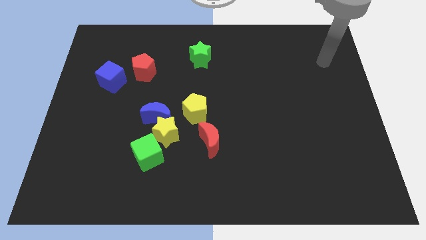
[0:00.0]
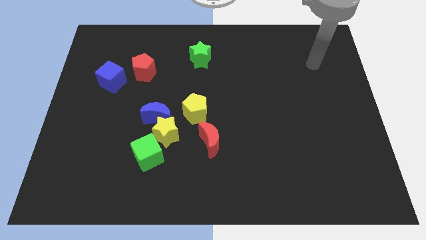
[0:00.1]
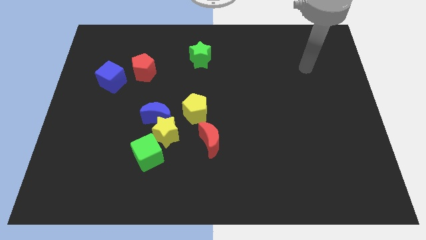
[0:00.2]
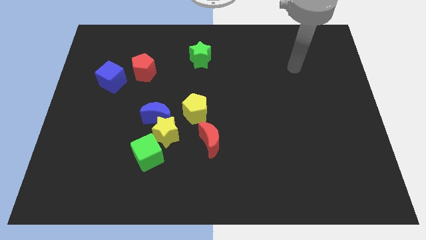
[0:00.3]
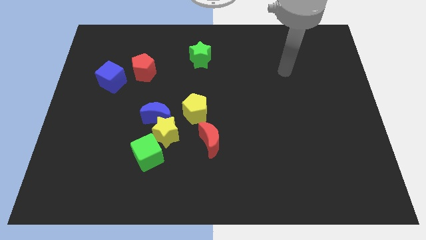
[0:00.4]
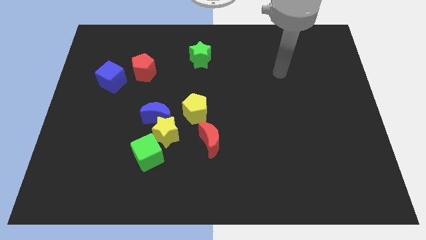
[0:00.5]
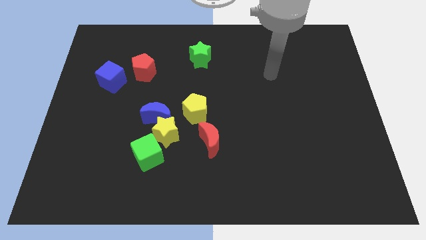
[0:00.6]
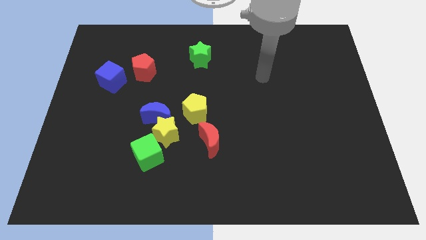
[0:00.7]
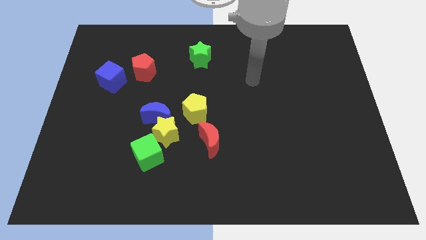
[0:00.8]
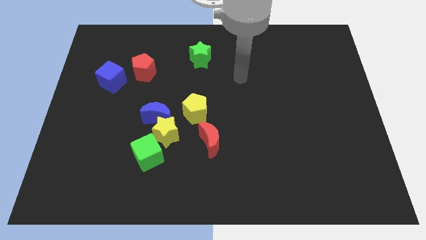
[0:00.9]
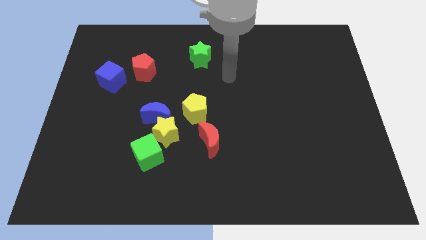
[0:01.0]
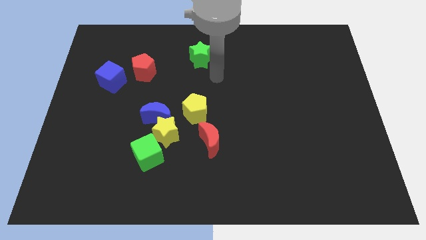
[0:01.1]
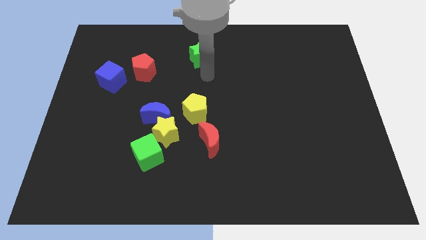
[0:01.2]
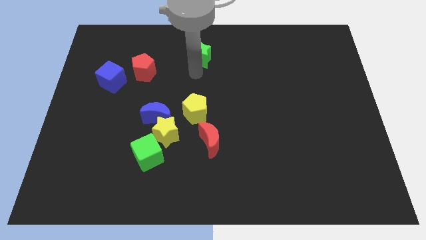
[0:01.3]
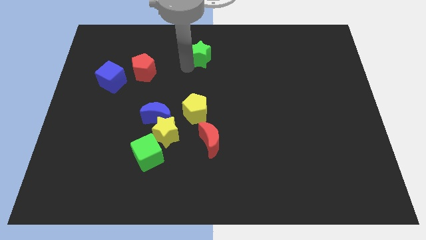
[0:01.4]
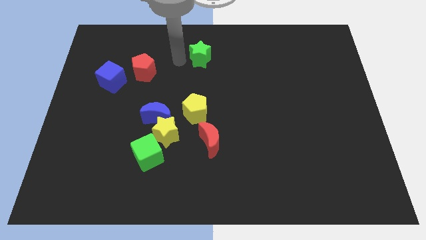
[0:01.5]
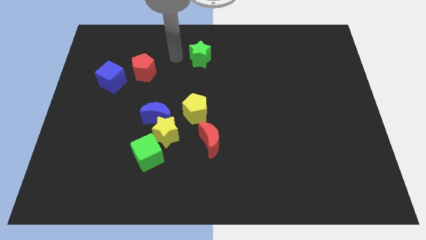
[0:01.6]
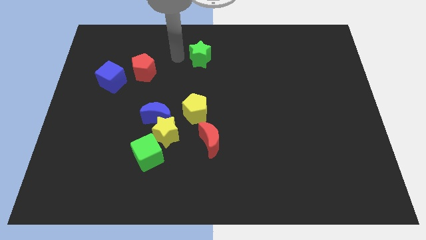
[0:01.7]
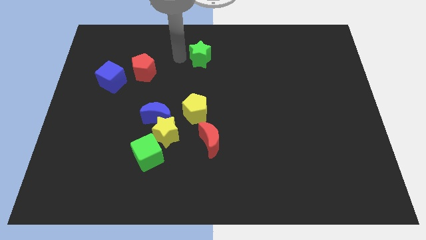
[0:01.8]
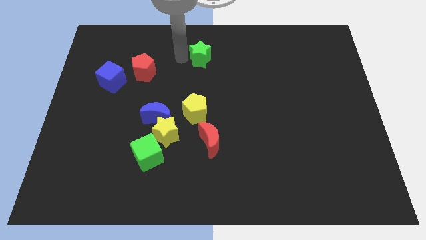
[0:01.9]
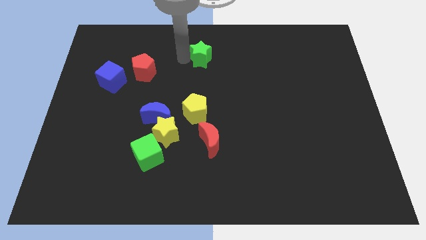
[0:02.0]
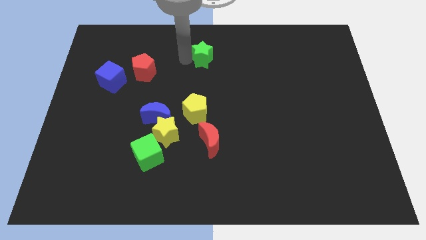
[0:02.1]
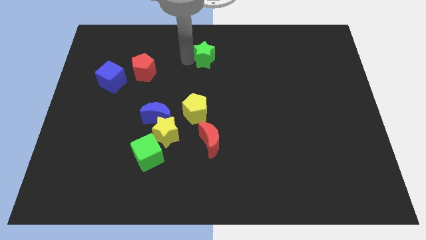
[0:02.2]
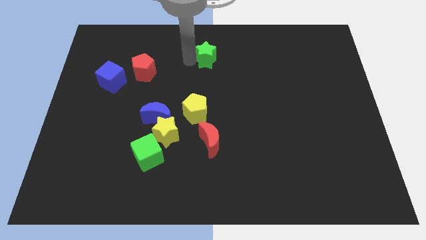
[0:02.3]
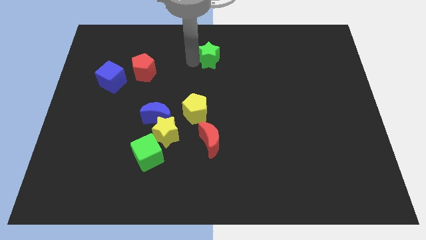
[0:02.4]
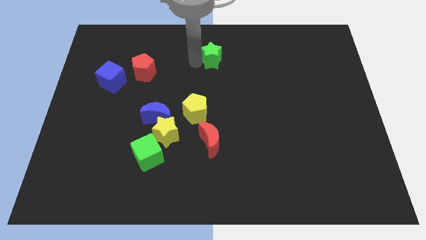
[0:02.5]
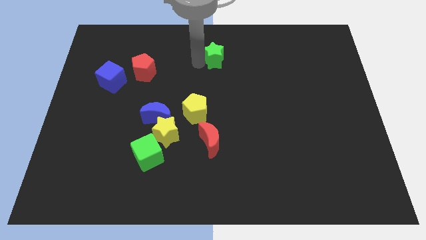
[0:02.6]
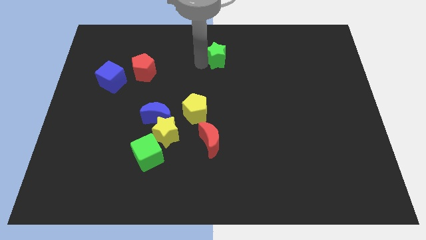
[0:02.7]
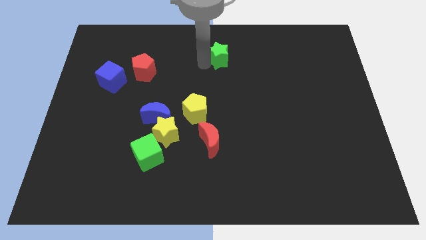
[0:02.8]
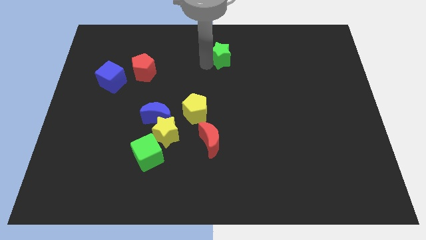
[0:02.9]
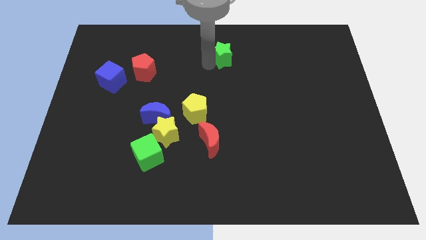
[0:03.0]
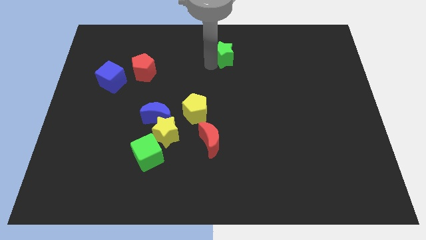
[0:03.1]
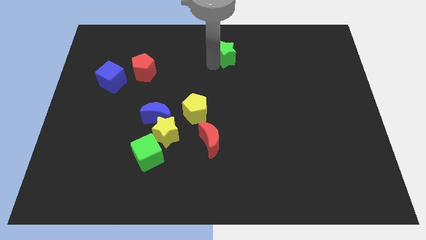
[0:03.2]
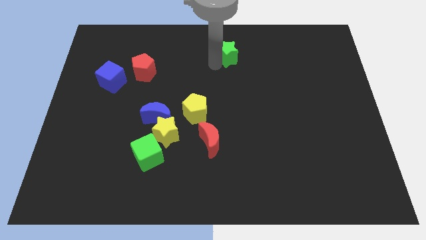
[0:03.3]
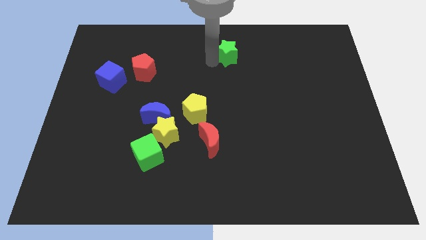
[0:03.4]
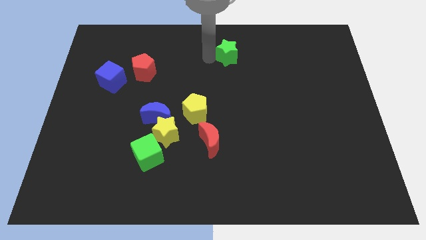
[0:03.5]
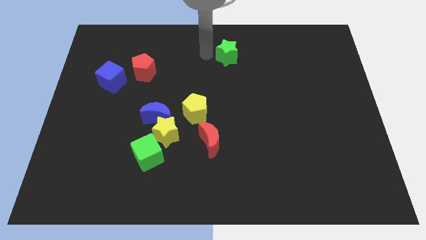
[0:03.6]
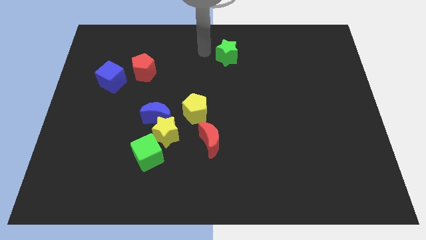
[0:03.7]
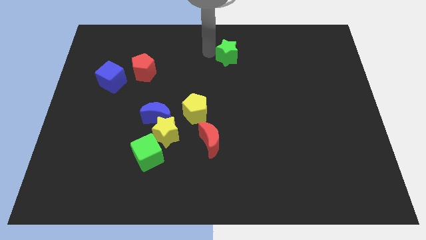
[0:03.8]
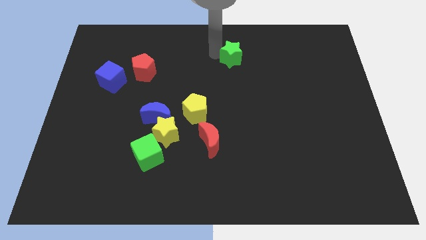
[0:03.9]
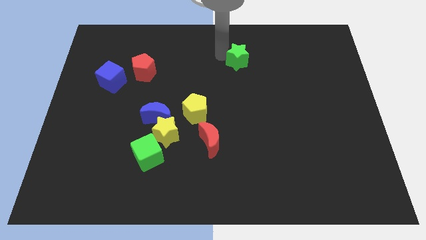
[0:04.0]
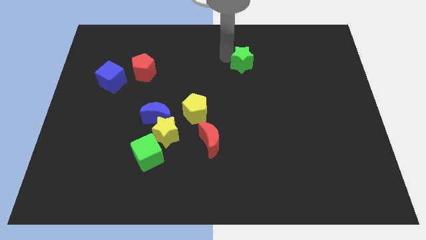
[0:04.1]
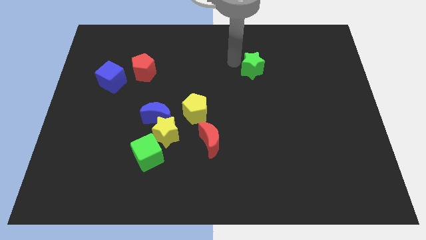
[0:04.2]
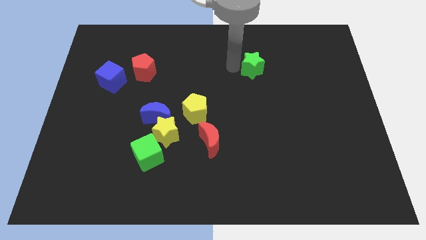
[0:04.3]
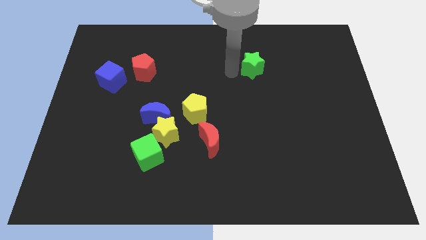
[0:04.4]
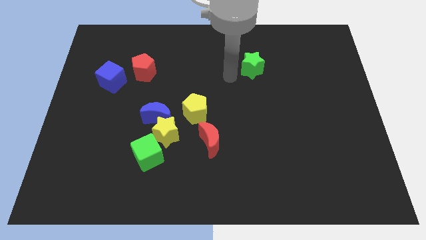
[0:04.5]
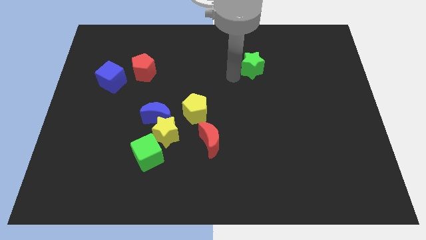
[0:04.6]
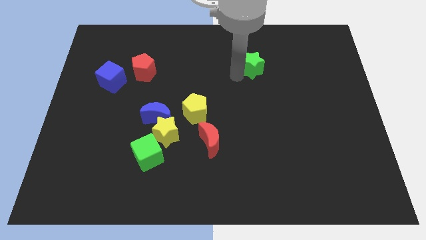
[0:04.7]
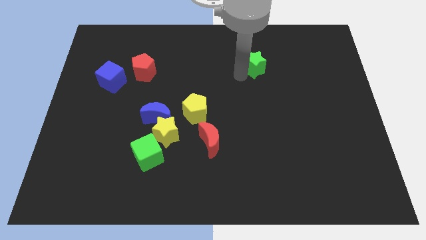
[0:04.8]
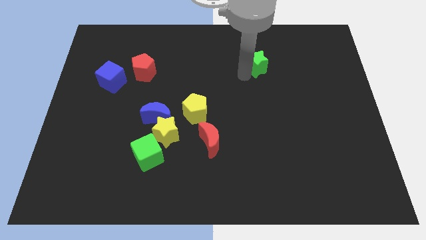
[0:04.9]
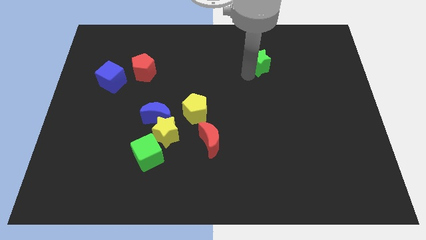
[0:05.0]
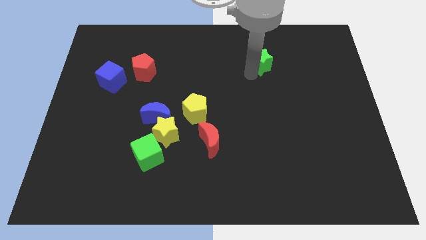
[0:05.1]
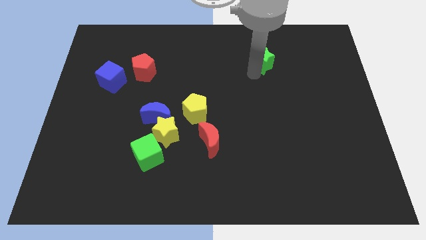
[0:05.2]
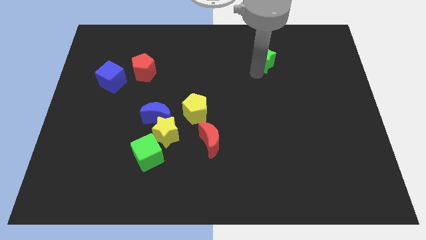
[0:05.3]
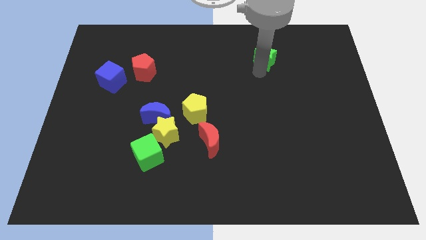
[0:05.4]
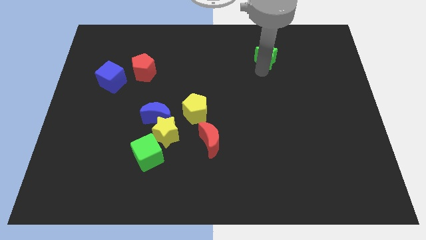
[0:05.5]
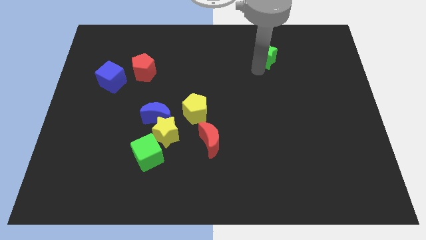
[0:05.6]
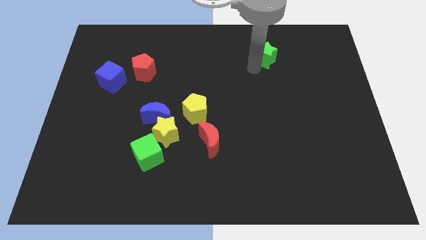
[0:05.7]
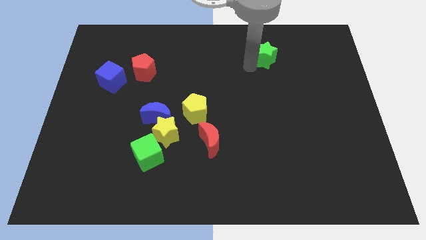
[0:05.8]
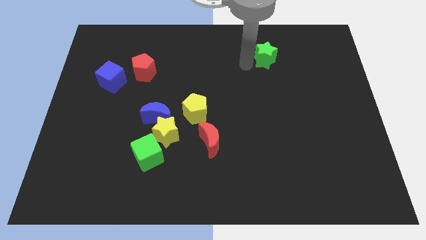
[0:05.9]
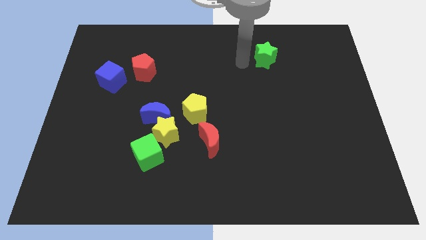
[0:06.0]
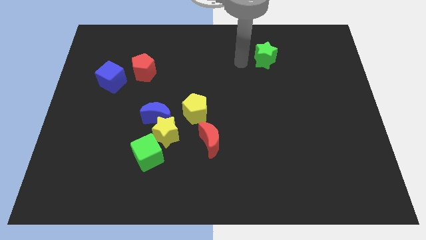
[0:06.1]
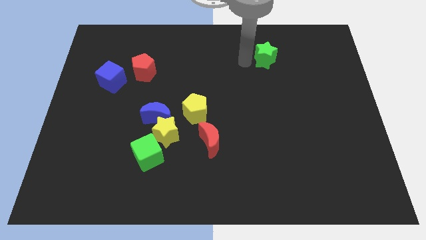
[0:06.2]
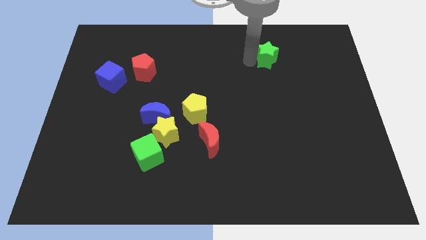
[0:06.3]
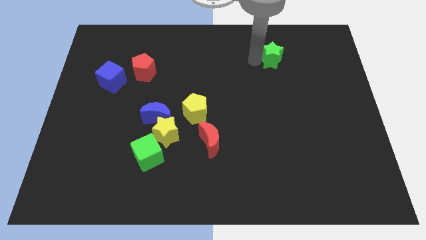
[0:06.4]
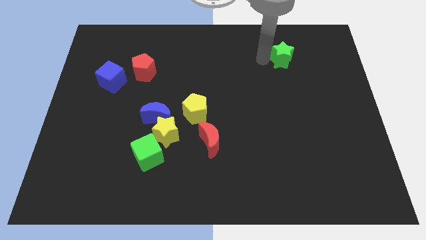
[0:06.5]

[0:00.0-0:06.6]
push the green star to the right

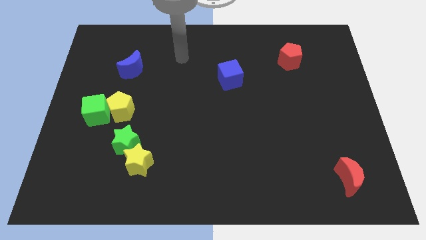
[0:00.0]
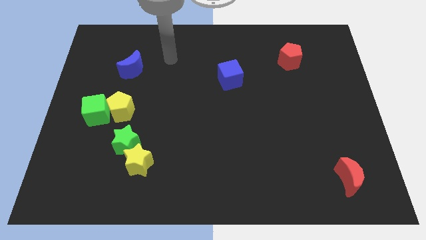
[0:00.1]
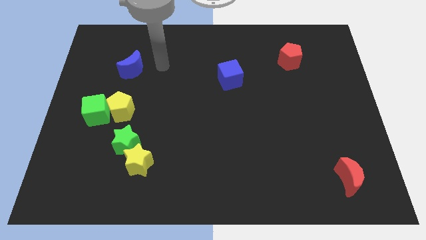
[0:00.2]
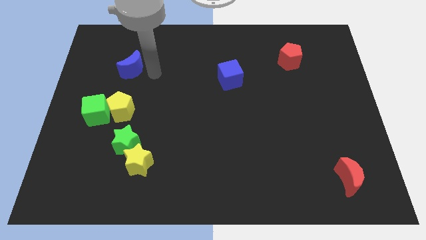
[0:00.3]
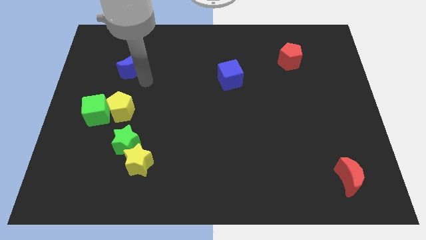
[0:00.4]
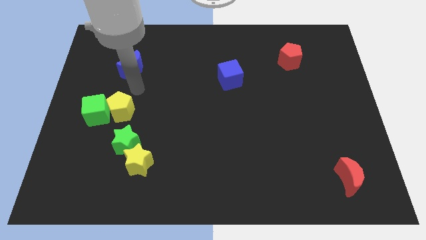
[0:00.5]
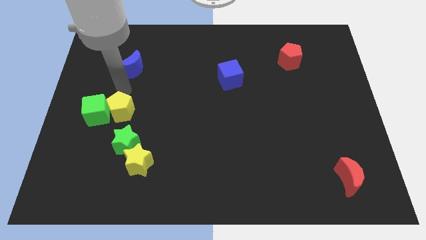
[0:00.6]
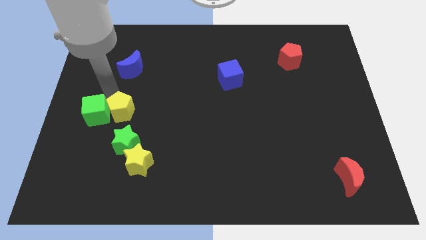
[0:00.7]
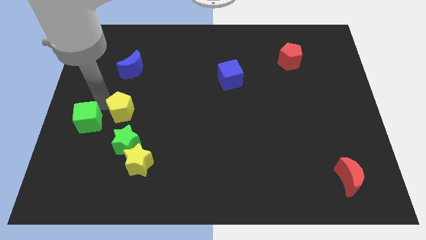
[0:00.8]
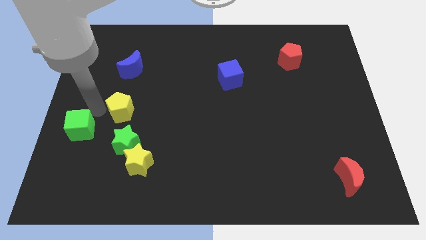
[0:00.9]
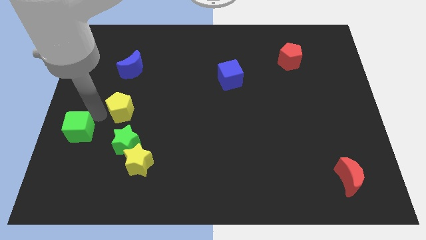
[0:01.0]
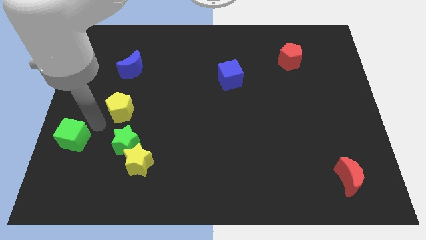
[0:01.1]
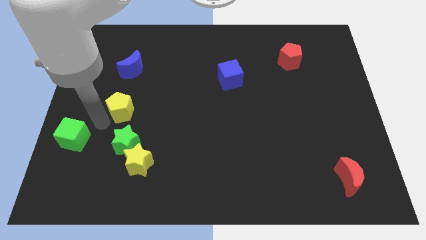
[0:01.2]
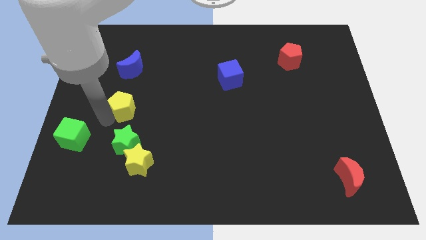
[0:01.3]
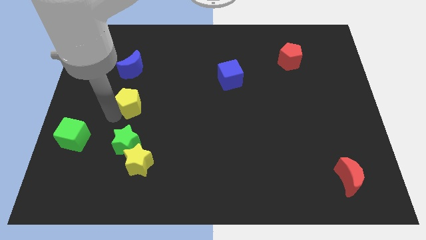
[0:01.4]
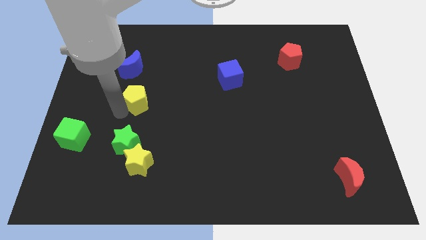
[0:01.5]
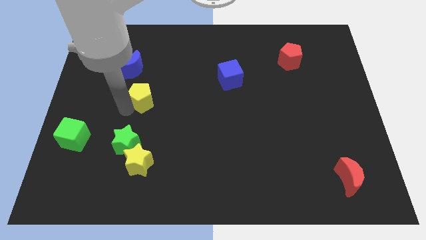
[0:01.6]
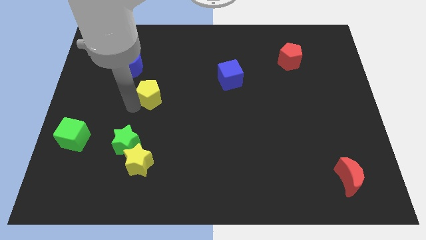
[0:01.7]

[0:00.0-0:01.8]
slightly move the yellow pentagon diagonally upwards and right
